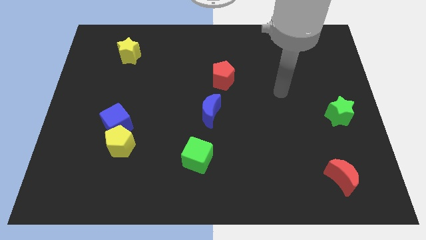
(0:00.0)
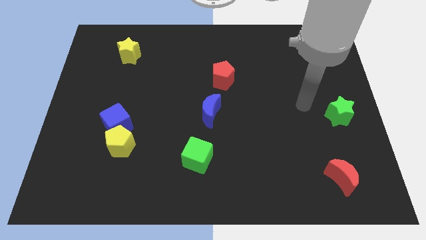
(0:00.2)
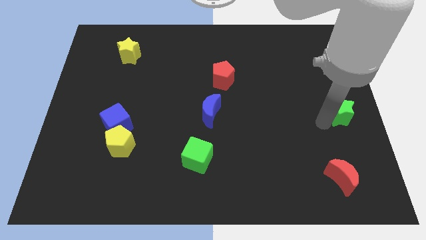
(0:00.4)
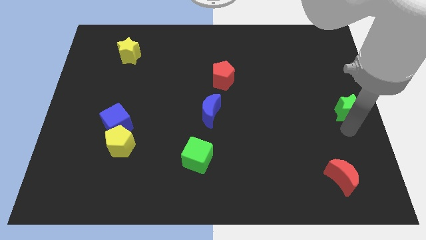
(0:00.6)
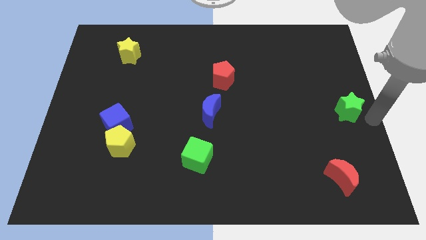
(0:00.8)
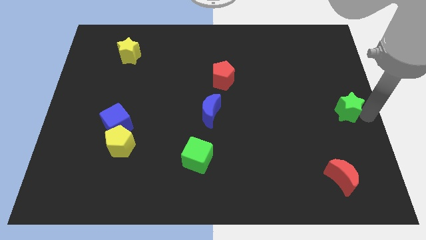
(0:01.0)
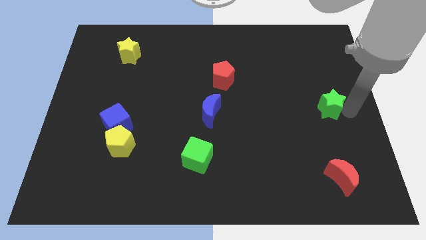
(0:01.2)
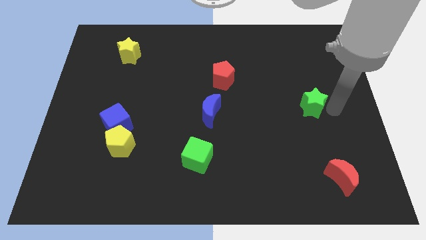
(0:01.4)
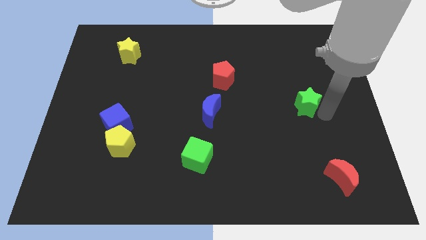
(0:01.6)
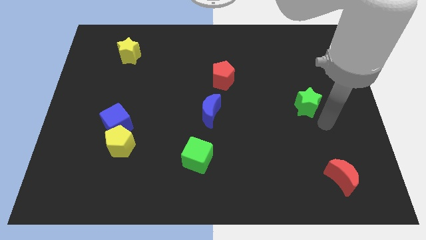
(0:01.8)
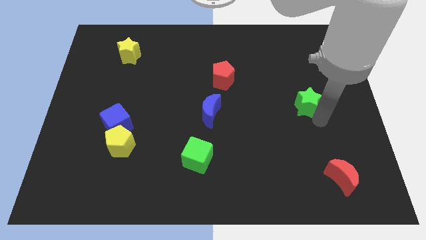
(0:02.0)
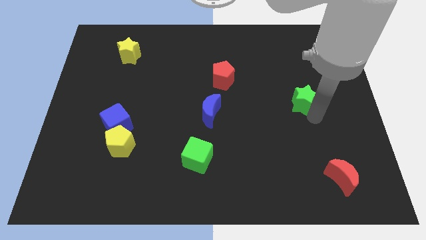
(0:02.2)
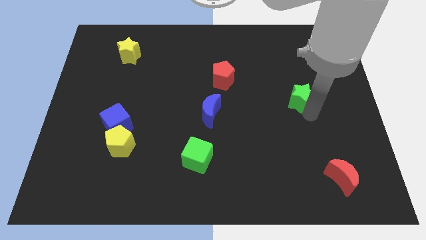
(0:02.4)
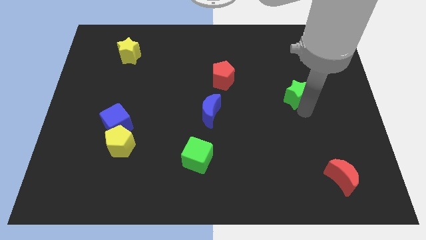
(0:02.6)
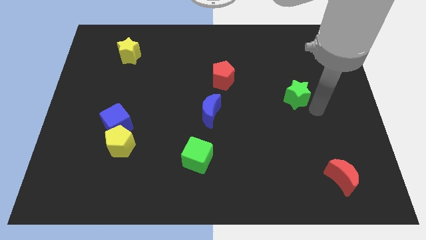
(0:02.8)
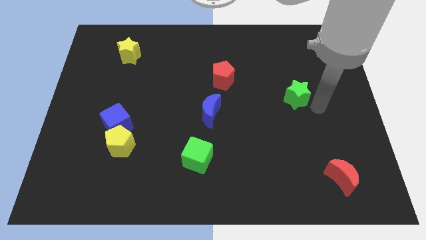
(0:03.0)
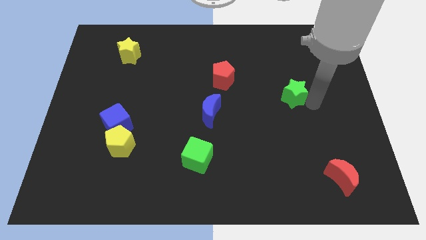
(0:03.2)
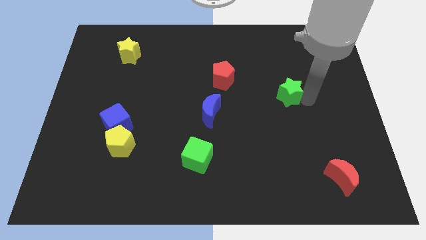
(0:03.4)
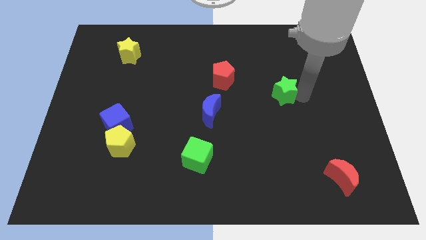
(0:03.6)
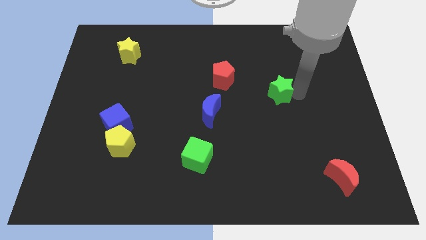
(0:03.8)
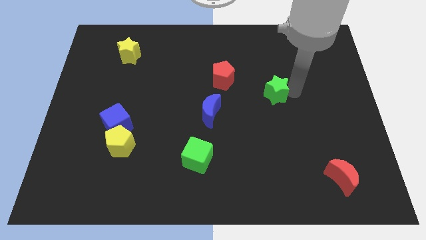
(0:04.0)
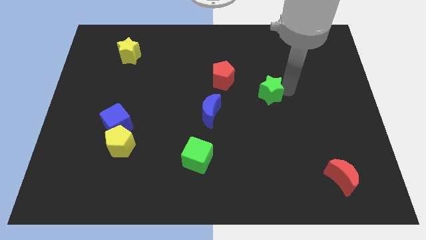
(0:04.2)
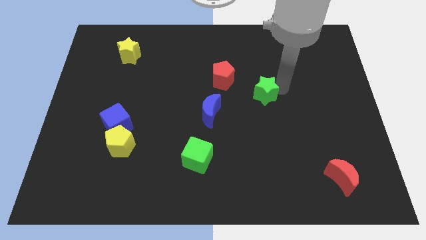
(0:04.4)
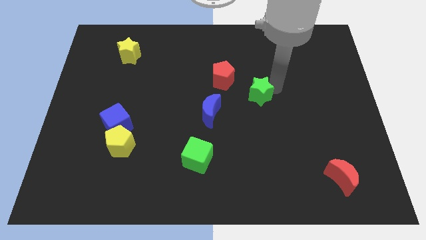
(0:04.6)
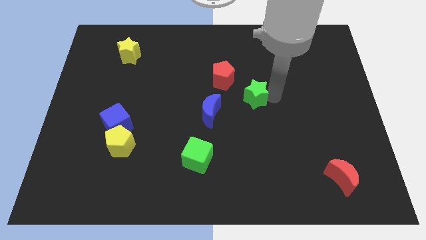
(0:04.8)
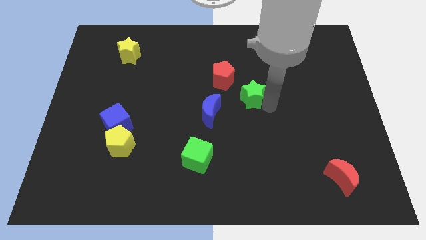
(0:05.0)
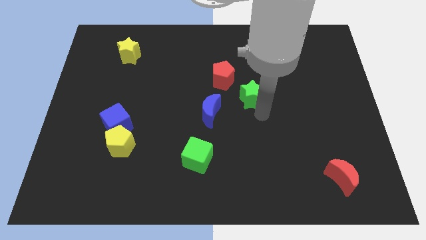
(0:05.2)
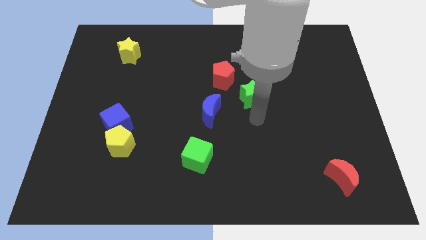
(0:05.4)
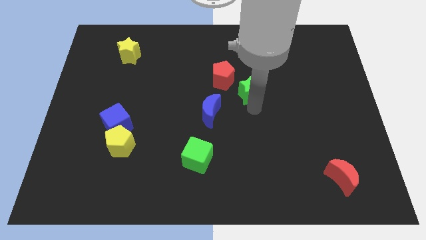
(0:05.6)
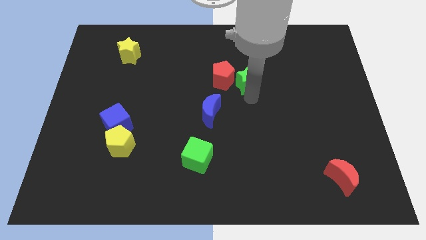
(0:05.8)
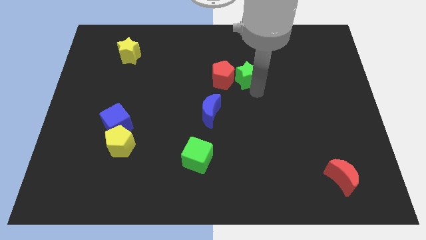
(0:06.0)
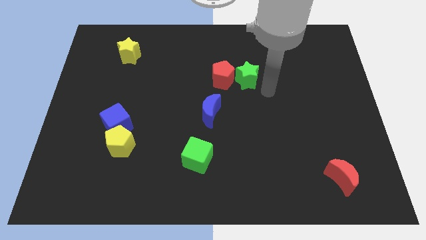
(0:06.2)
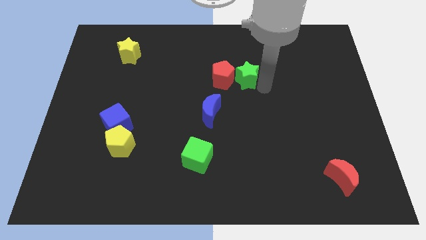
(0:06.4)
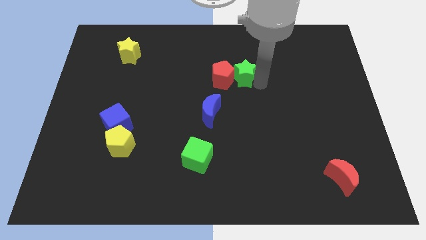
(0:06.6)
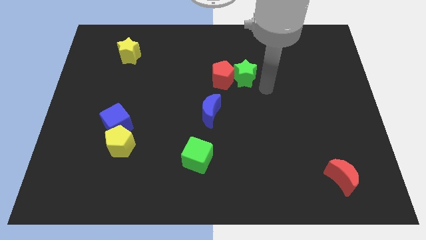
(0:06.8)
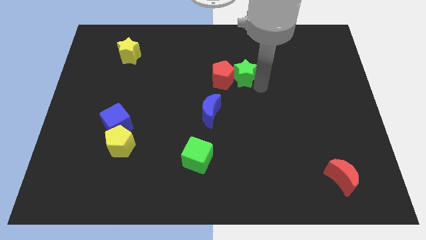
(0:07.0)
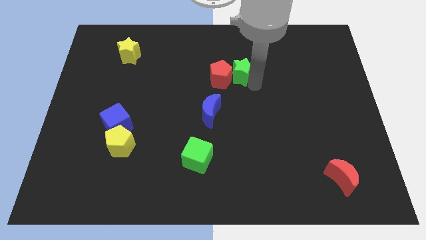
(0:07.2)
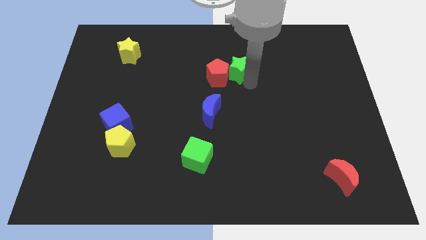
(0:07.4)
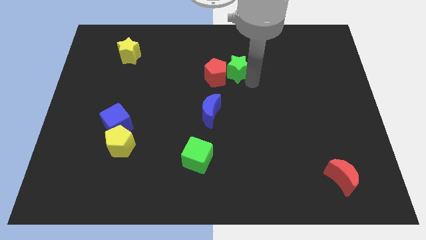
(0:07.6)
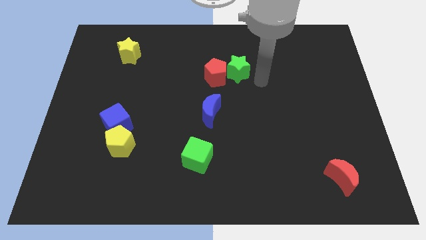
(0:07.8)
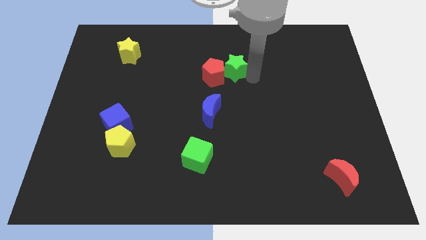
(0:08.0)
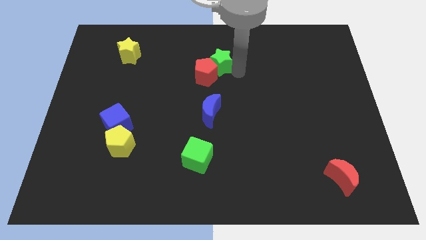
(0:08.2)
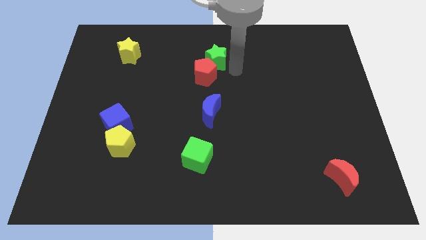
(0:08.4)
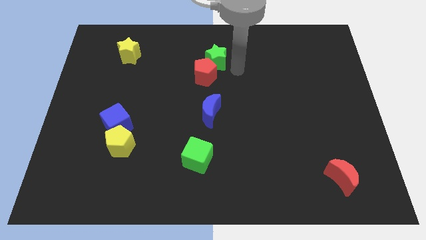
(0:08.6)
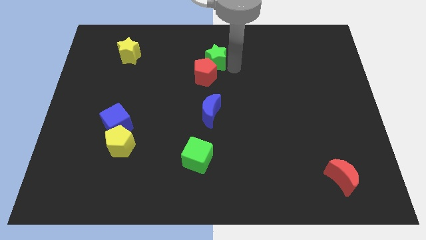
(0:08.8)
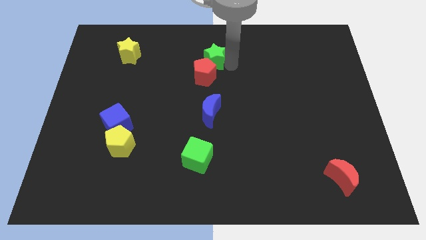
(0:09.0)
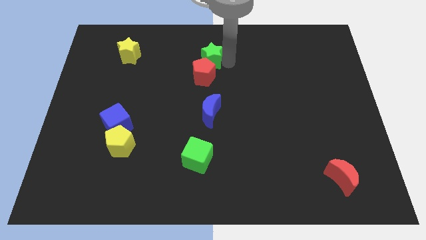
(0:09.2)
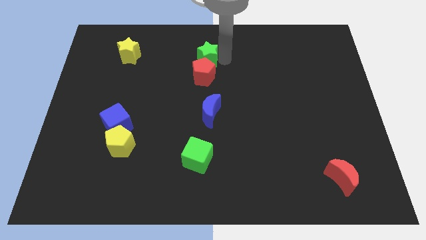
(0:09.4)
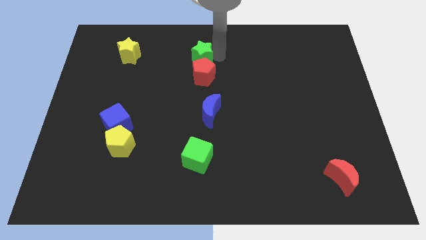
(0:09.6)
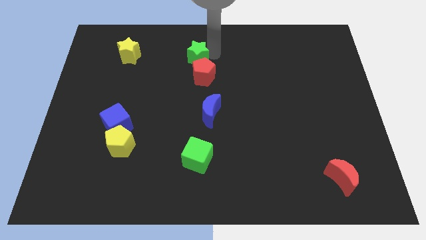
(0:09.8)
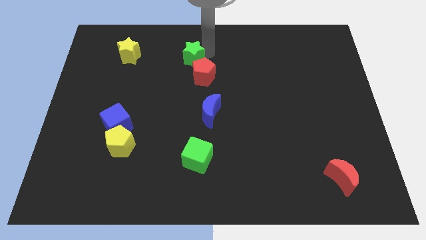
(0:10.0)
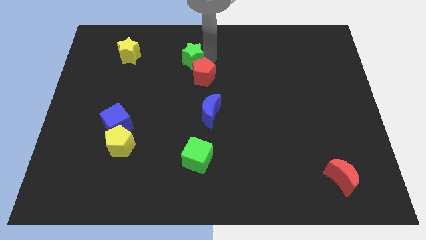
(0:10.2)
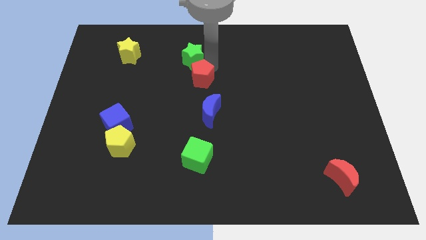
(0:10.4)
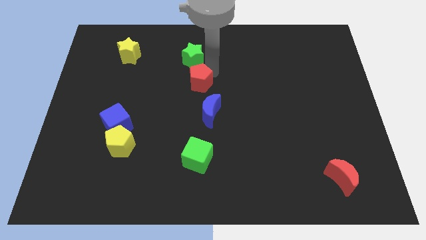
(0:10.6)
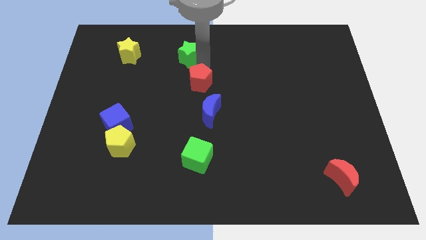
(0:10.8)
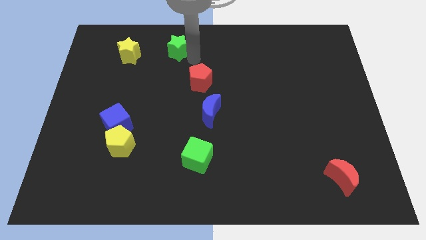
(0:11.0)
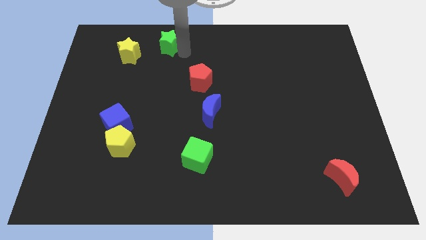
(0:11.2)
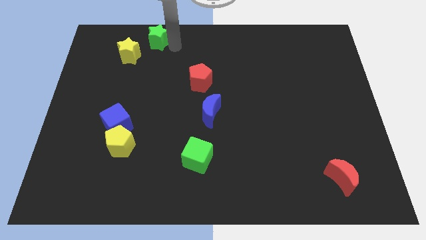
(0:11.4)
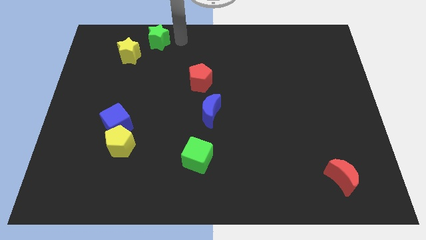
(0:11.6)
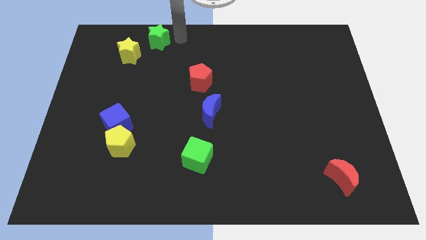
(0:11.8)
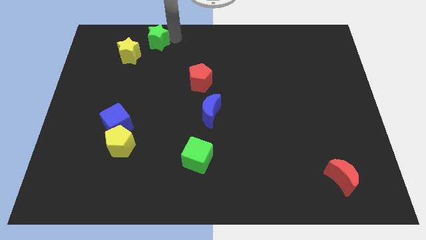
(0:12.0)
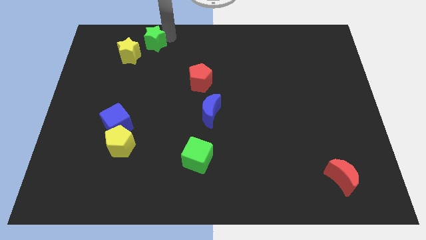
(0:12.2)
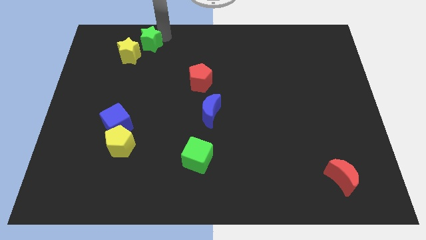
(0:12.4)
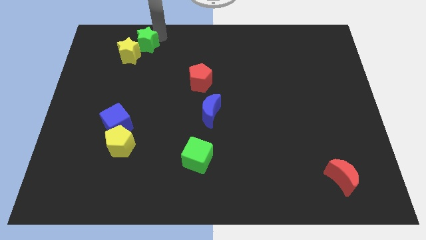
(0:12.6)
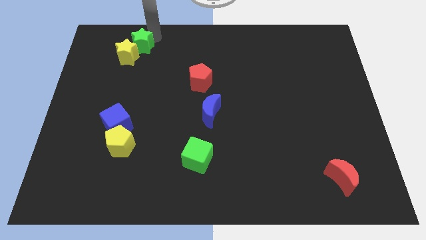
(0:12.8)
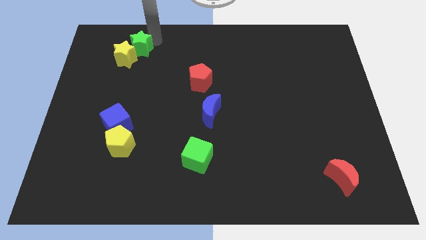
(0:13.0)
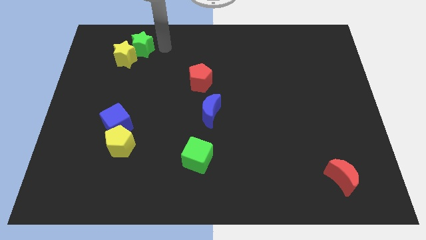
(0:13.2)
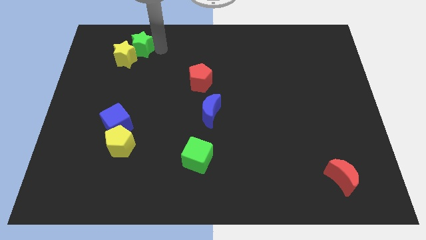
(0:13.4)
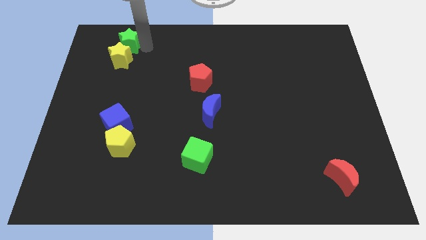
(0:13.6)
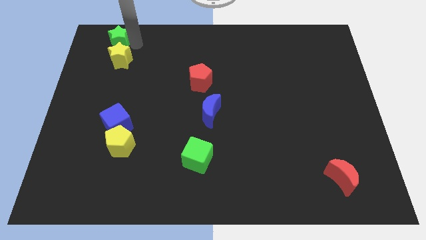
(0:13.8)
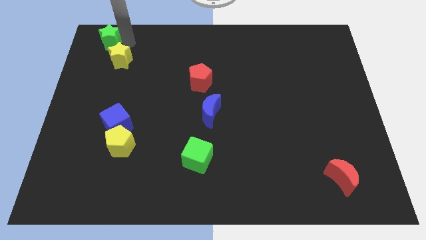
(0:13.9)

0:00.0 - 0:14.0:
put the green star to the top left of the board
